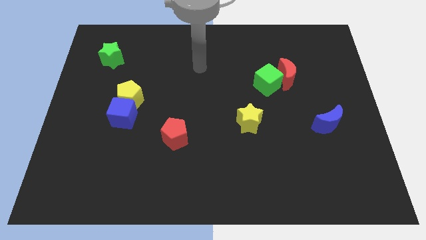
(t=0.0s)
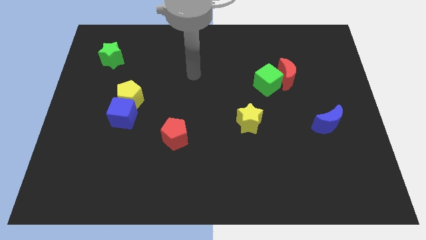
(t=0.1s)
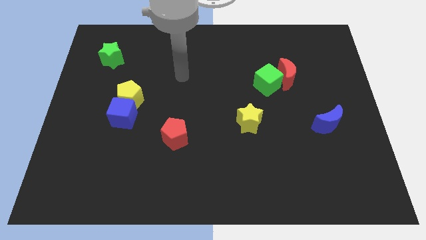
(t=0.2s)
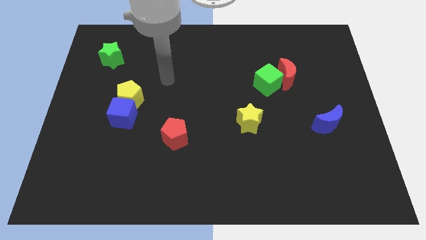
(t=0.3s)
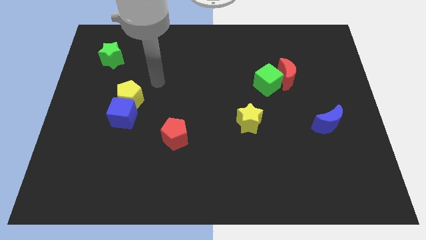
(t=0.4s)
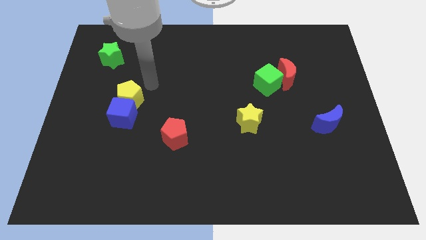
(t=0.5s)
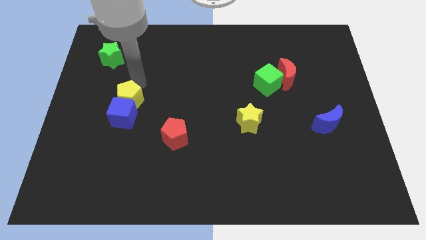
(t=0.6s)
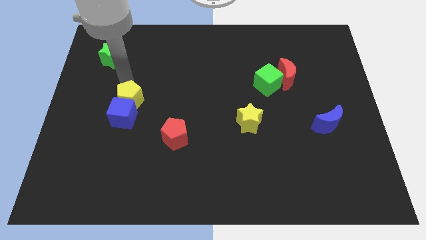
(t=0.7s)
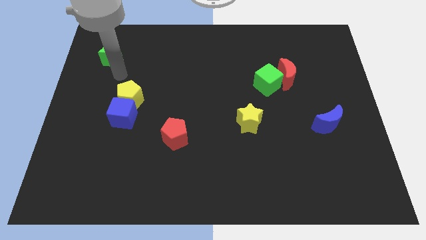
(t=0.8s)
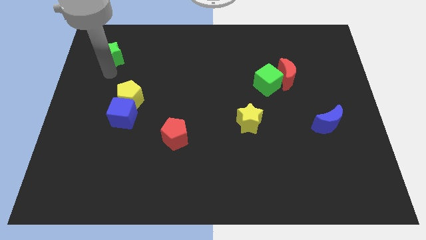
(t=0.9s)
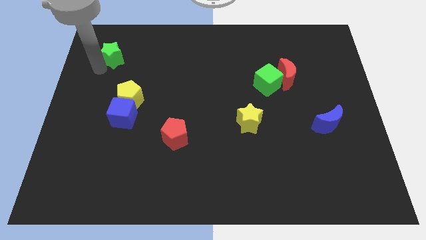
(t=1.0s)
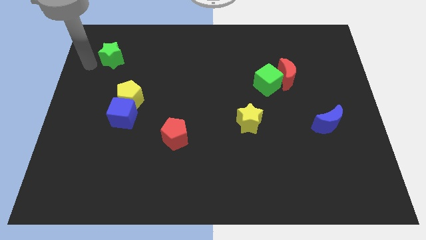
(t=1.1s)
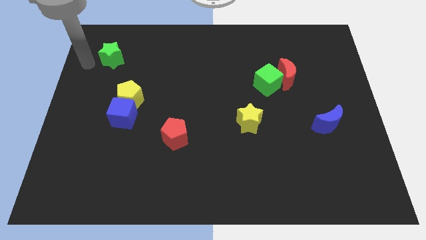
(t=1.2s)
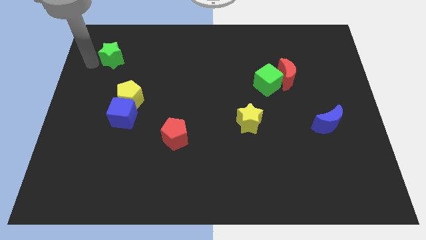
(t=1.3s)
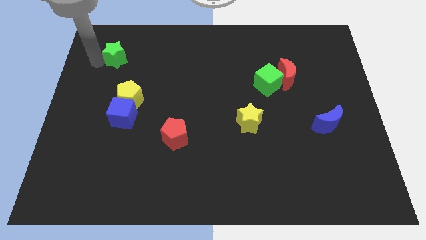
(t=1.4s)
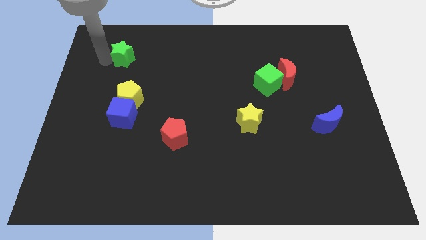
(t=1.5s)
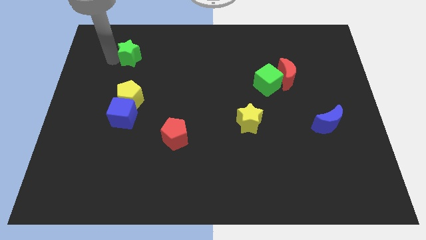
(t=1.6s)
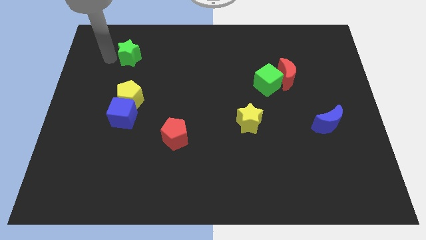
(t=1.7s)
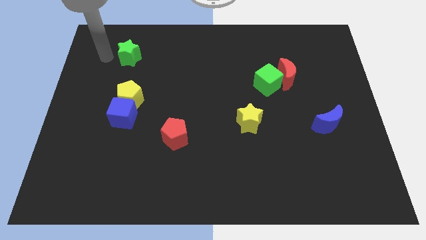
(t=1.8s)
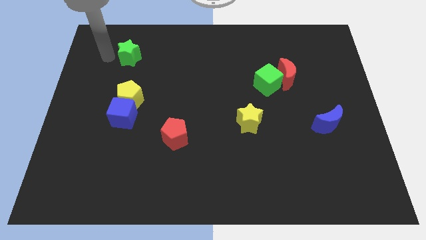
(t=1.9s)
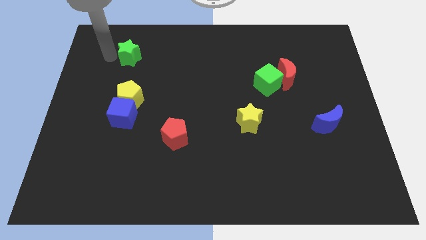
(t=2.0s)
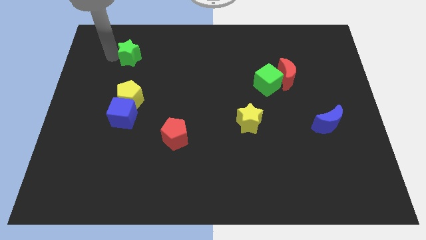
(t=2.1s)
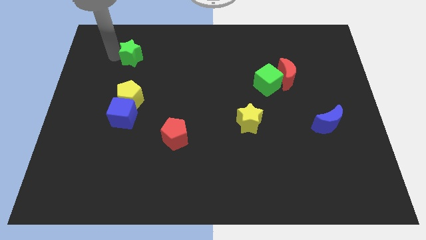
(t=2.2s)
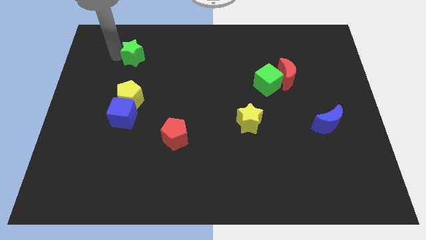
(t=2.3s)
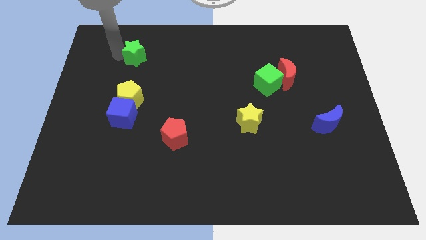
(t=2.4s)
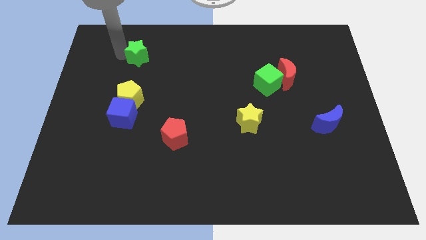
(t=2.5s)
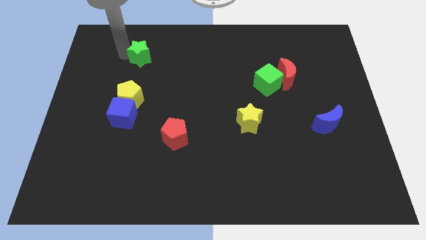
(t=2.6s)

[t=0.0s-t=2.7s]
move the green star a little to the right

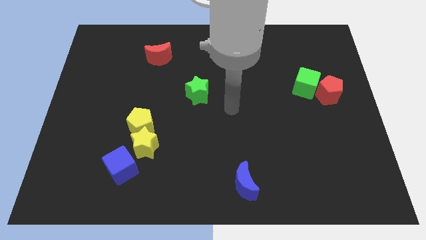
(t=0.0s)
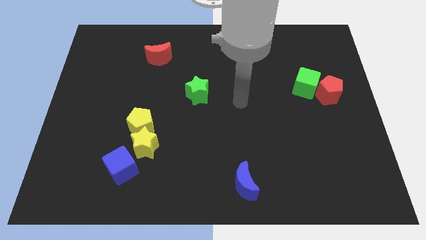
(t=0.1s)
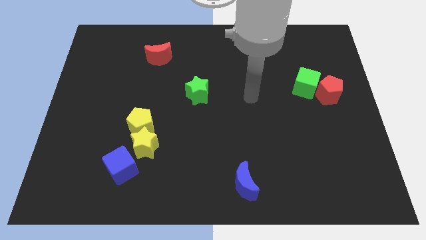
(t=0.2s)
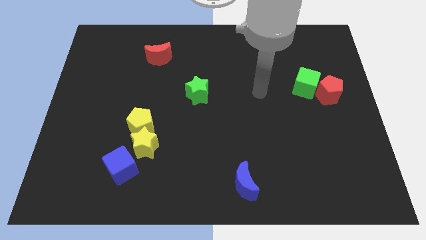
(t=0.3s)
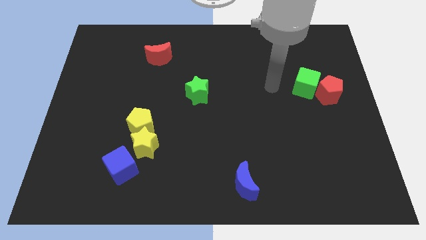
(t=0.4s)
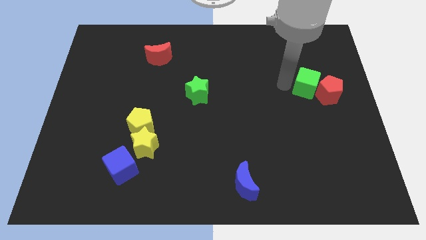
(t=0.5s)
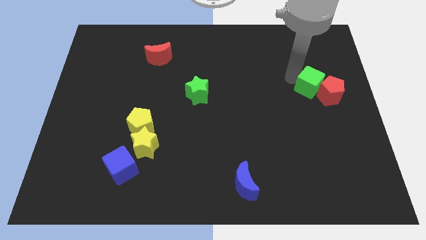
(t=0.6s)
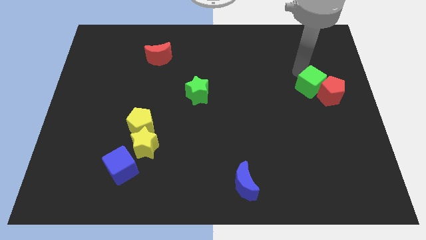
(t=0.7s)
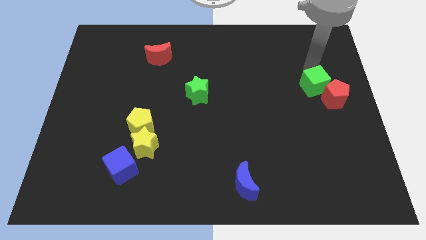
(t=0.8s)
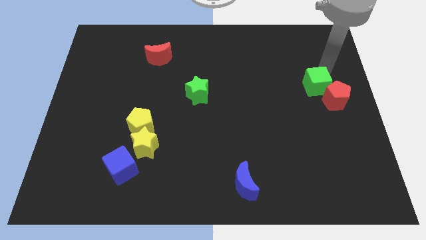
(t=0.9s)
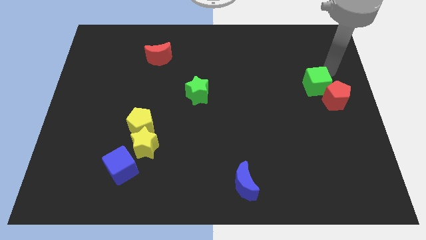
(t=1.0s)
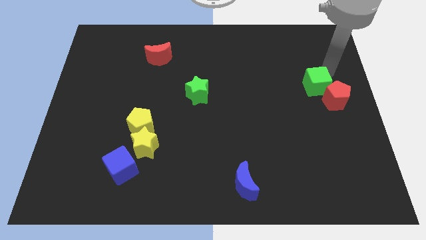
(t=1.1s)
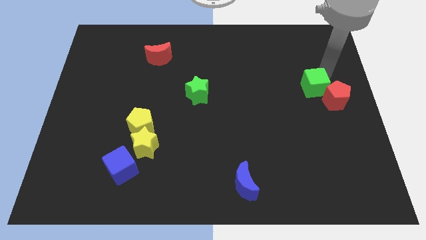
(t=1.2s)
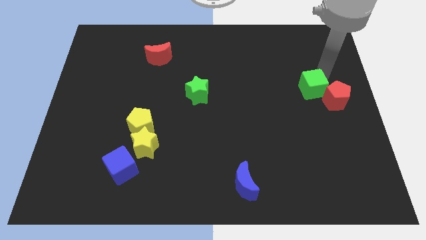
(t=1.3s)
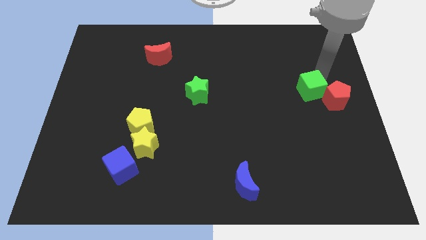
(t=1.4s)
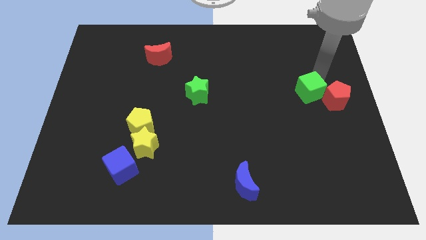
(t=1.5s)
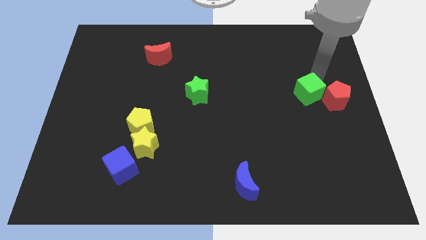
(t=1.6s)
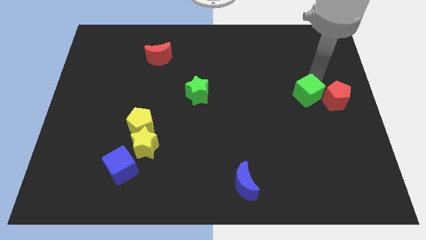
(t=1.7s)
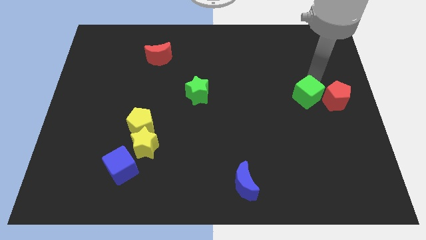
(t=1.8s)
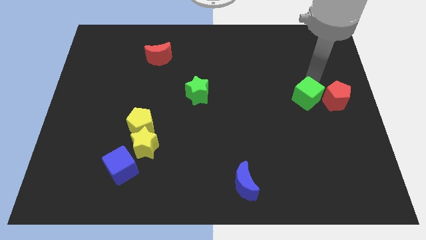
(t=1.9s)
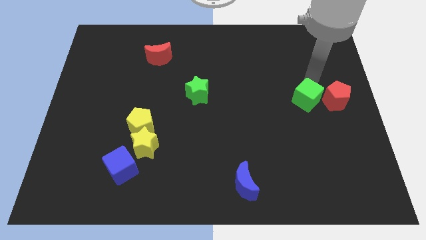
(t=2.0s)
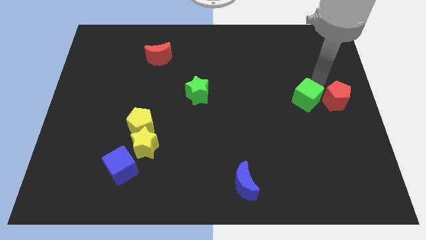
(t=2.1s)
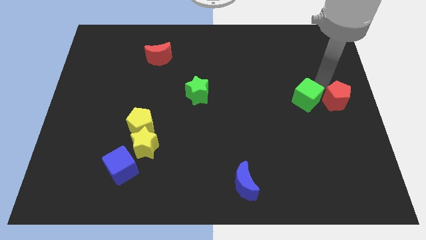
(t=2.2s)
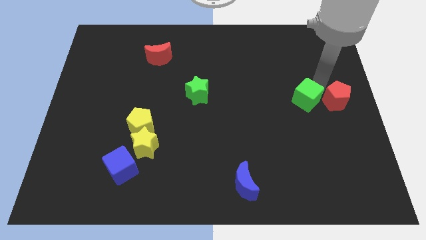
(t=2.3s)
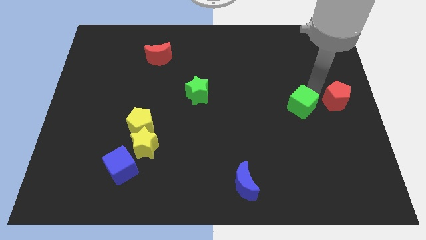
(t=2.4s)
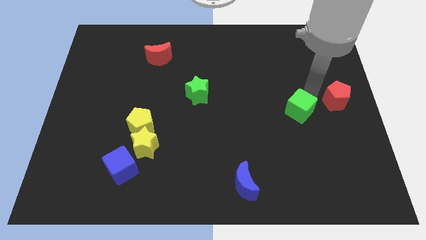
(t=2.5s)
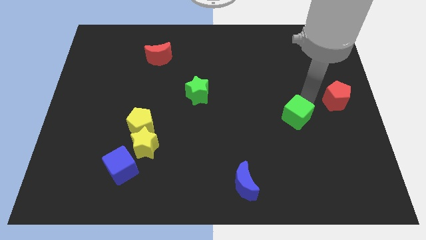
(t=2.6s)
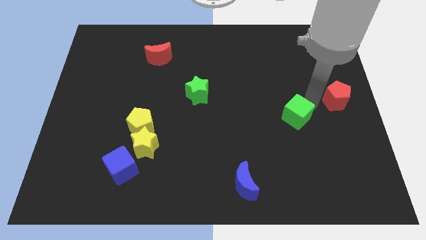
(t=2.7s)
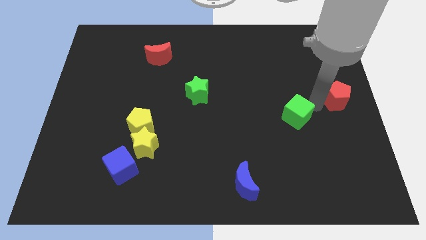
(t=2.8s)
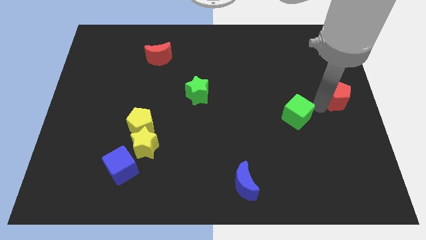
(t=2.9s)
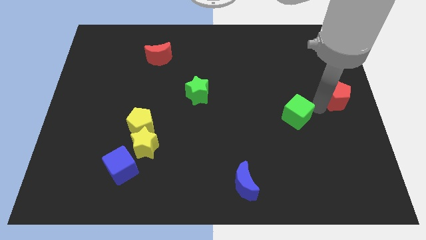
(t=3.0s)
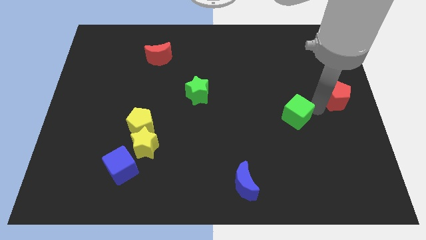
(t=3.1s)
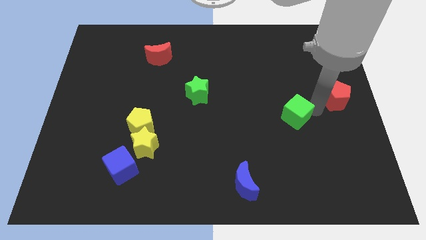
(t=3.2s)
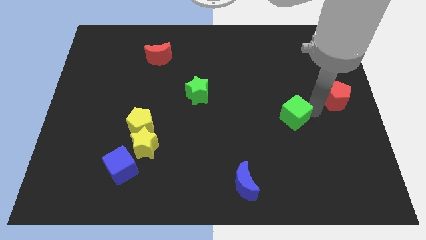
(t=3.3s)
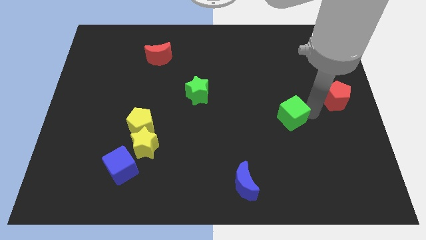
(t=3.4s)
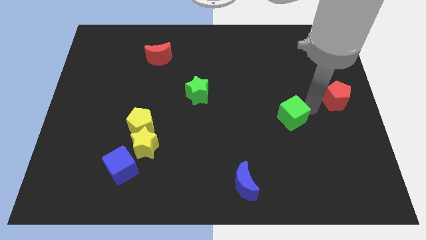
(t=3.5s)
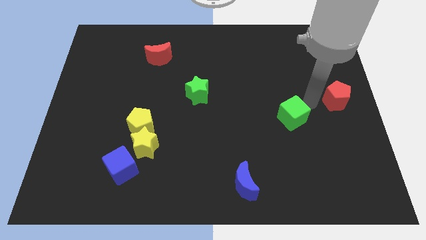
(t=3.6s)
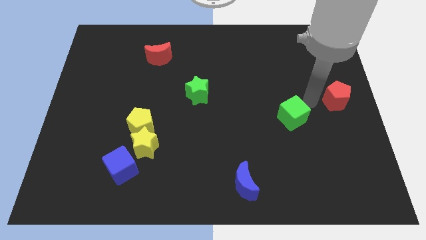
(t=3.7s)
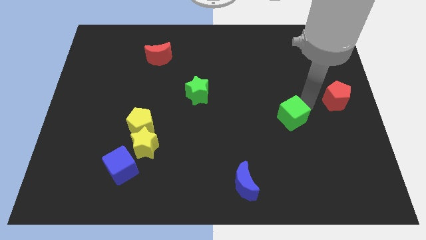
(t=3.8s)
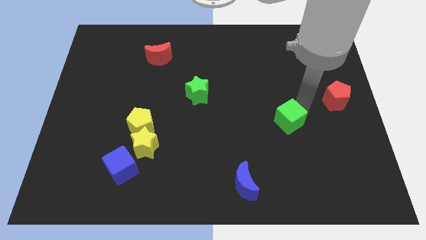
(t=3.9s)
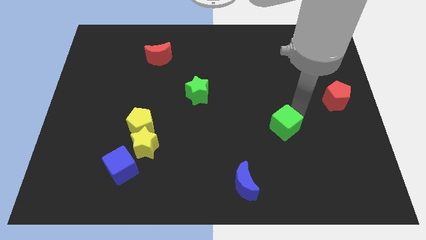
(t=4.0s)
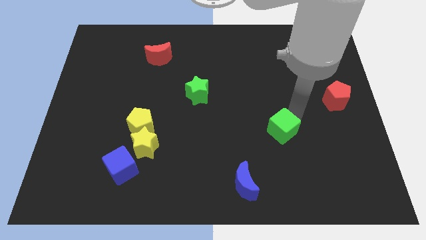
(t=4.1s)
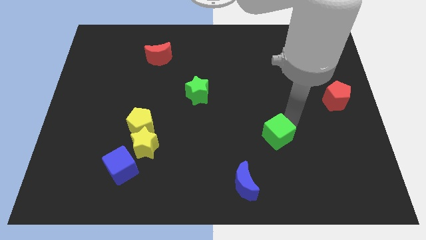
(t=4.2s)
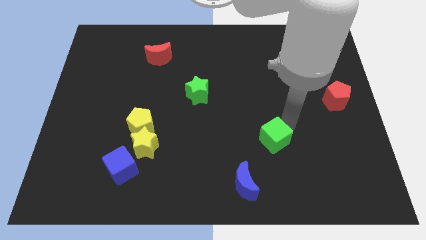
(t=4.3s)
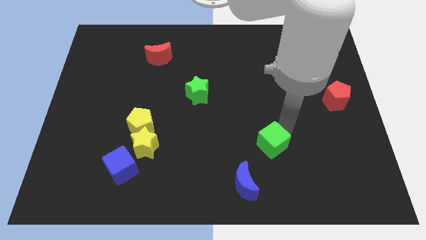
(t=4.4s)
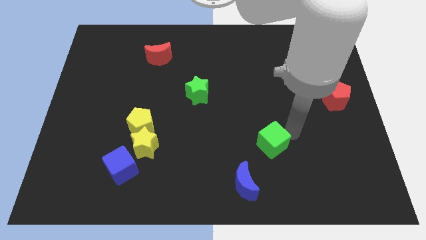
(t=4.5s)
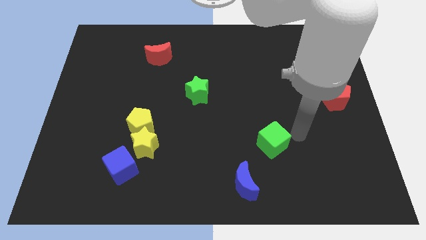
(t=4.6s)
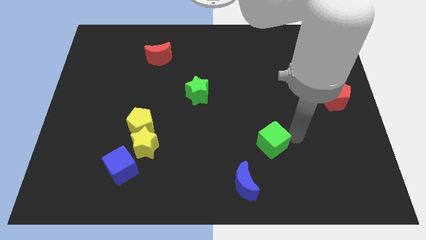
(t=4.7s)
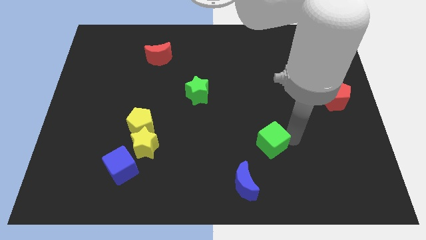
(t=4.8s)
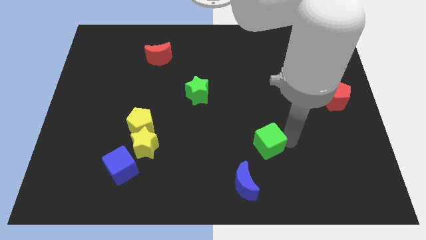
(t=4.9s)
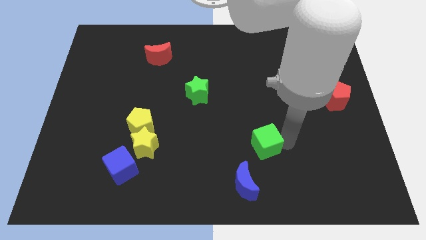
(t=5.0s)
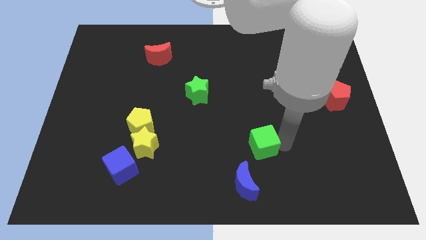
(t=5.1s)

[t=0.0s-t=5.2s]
move the green cube down and to the left

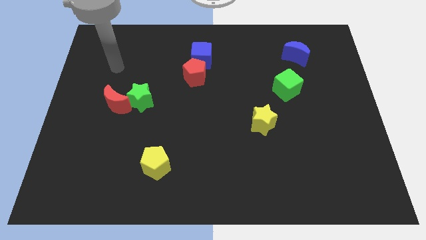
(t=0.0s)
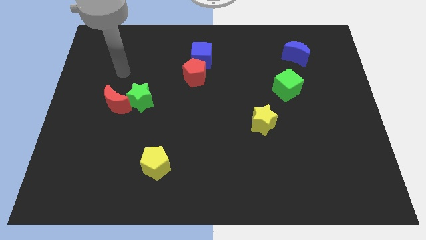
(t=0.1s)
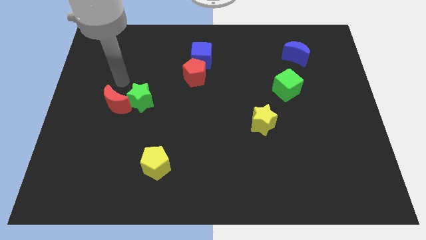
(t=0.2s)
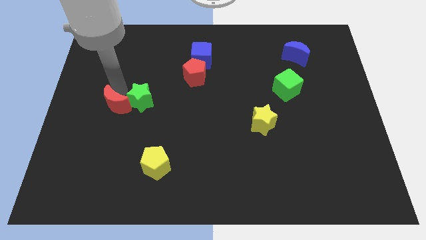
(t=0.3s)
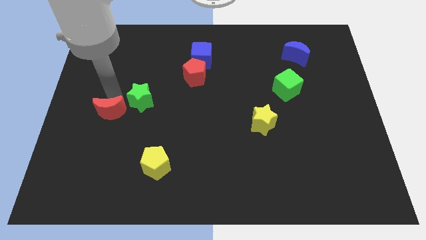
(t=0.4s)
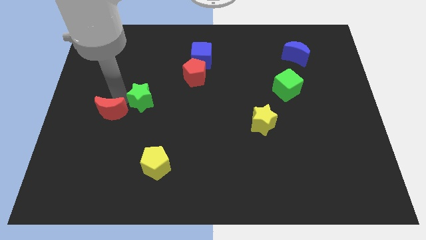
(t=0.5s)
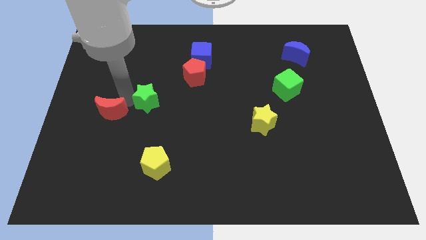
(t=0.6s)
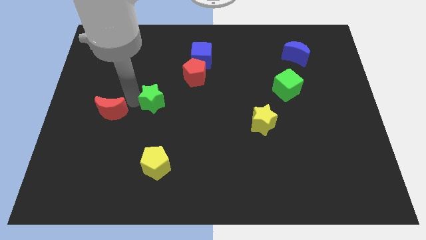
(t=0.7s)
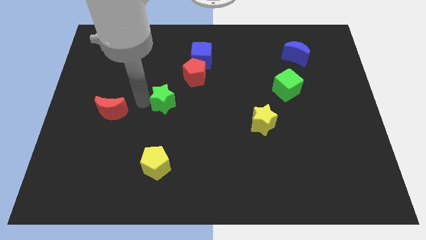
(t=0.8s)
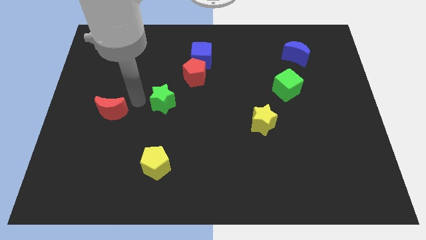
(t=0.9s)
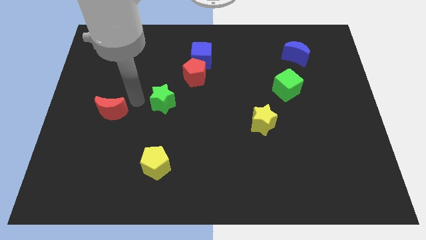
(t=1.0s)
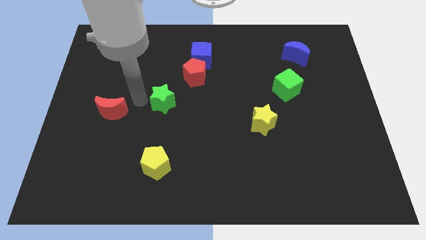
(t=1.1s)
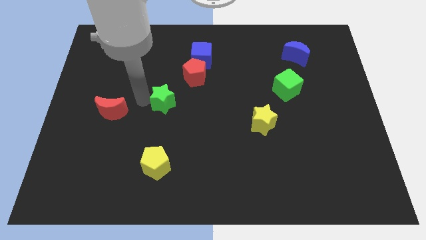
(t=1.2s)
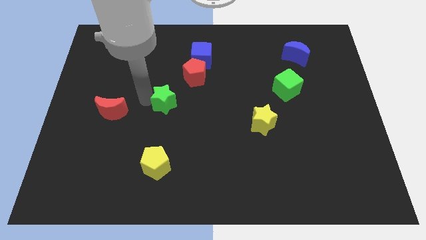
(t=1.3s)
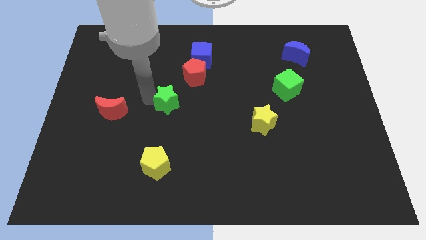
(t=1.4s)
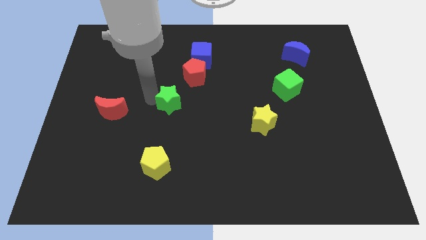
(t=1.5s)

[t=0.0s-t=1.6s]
push the green star to the right a little
